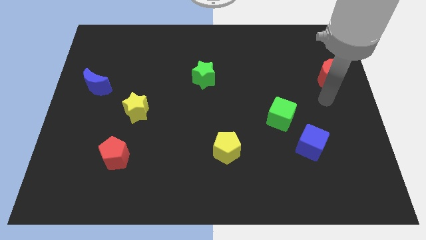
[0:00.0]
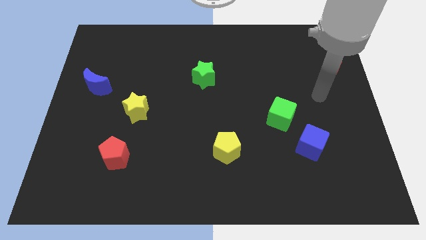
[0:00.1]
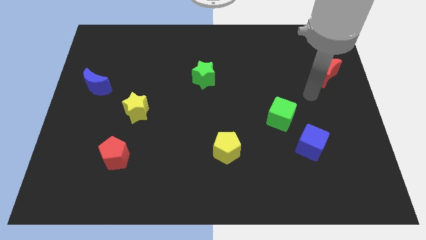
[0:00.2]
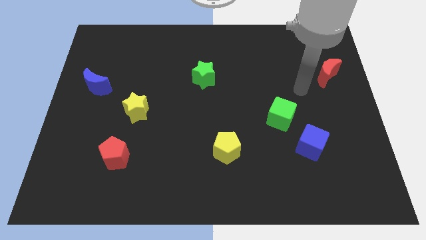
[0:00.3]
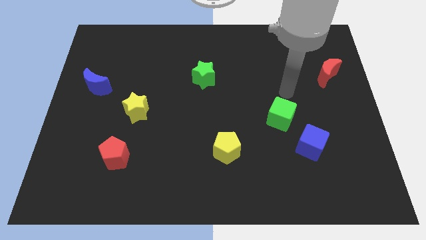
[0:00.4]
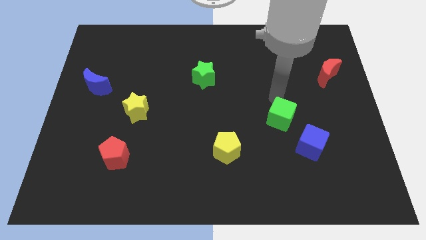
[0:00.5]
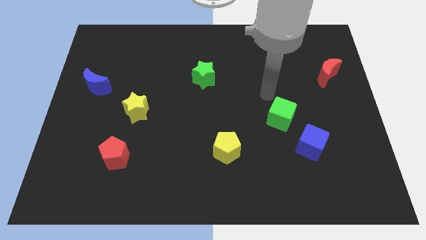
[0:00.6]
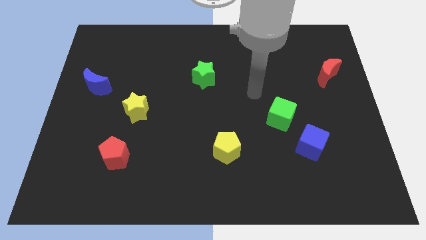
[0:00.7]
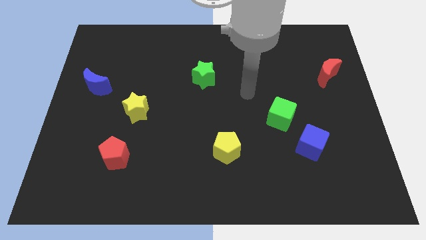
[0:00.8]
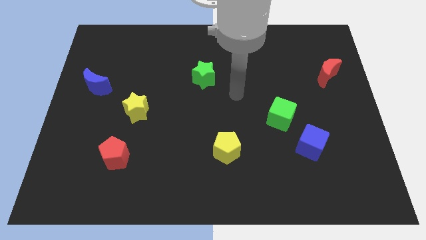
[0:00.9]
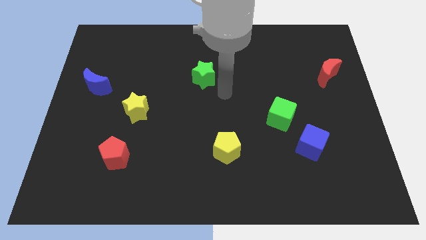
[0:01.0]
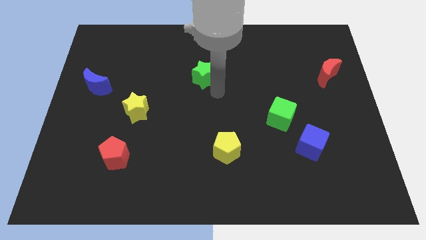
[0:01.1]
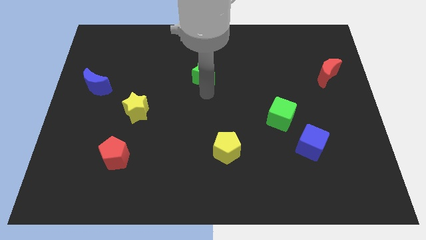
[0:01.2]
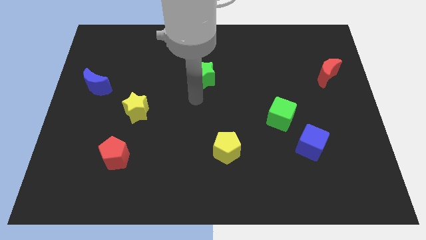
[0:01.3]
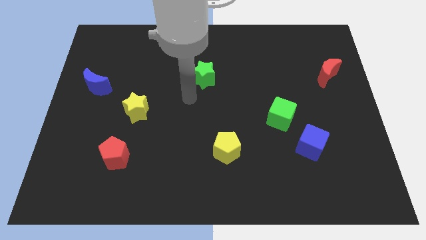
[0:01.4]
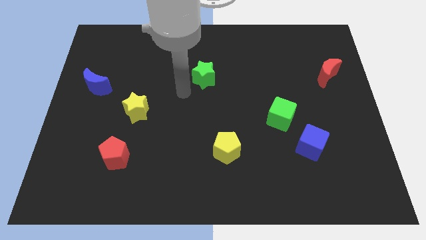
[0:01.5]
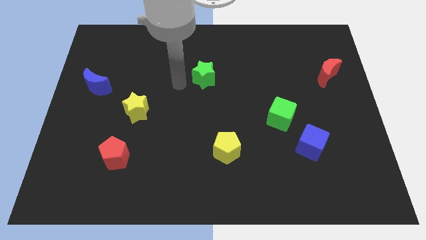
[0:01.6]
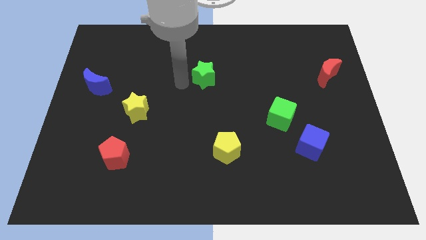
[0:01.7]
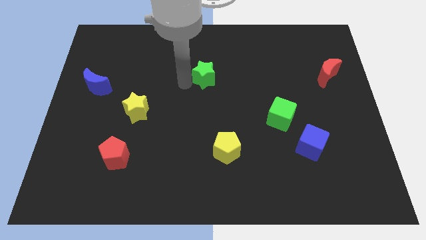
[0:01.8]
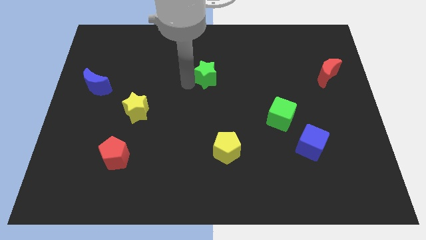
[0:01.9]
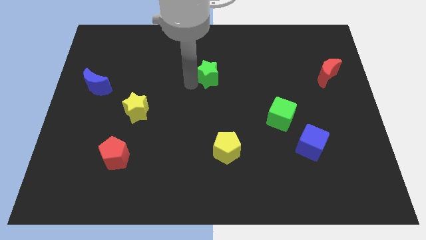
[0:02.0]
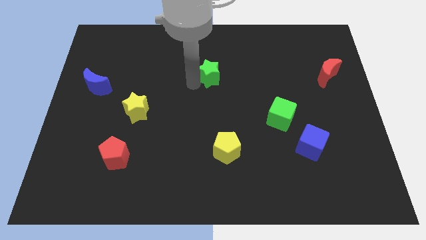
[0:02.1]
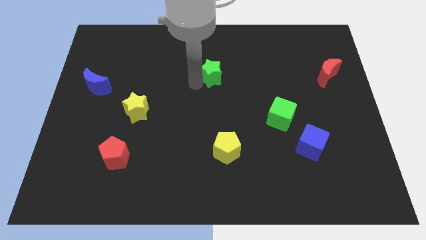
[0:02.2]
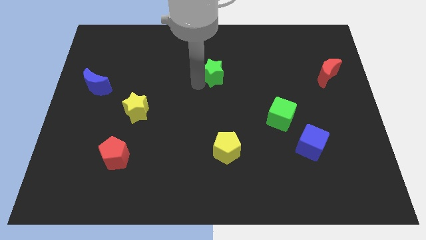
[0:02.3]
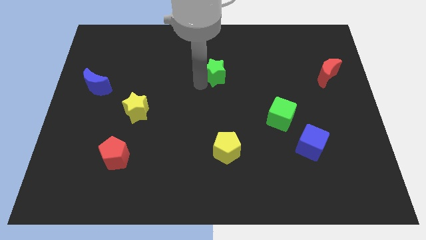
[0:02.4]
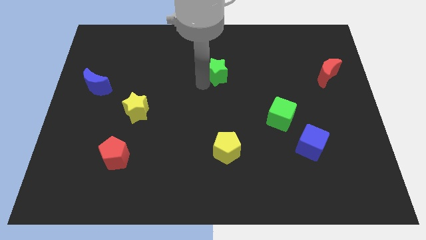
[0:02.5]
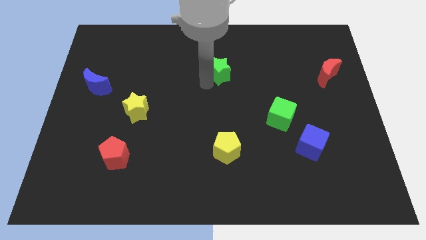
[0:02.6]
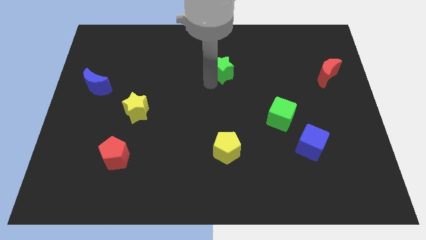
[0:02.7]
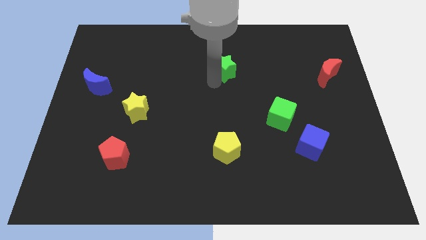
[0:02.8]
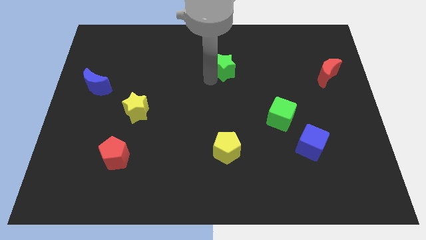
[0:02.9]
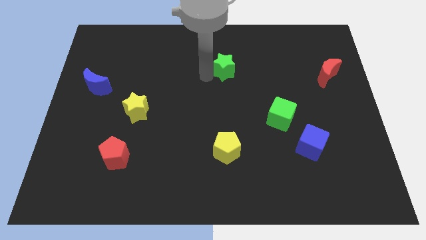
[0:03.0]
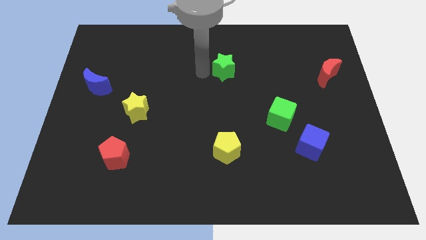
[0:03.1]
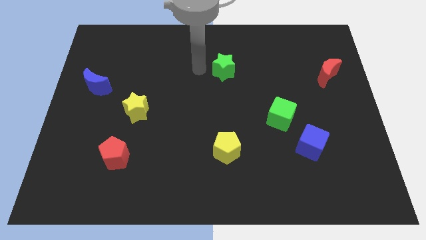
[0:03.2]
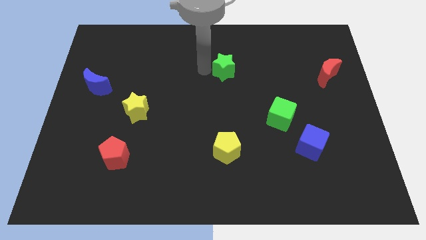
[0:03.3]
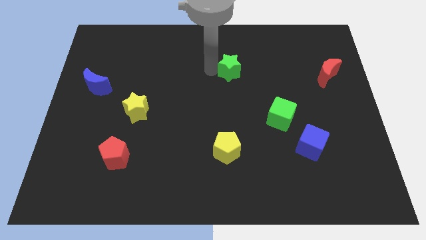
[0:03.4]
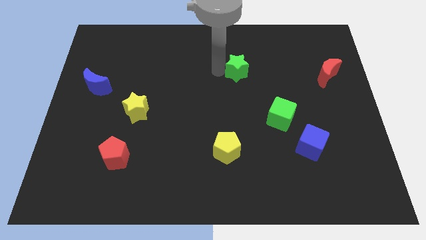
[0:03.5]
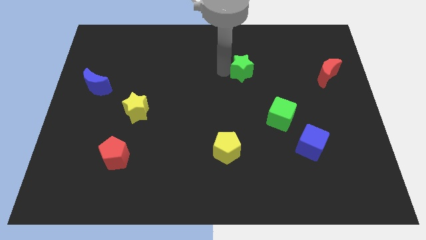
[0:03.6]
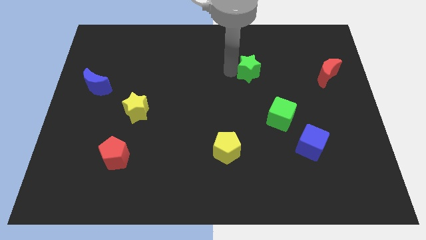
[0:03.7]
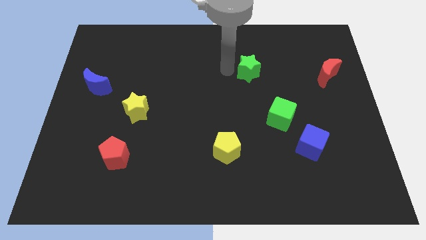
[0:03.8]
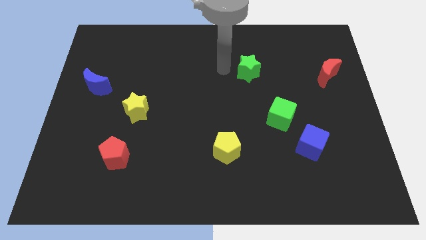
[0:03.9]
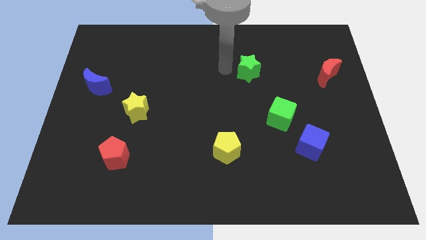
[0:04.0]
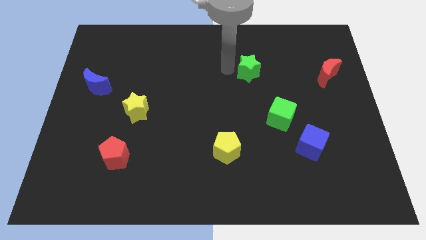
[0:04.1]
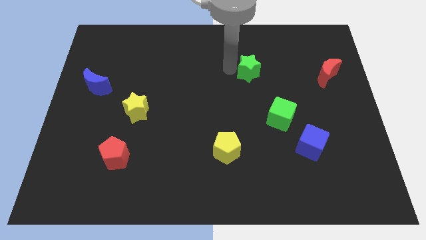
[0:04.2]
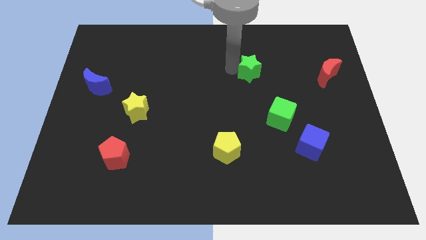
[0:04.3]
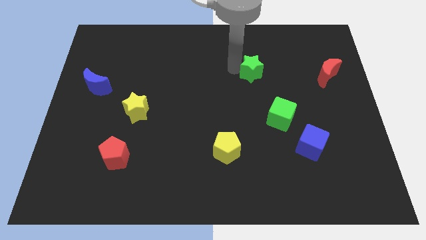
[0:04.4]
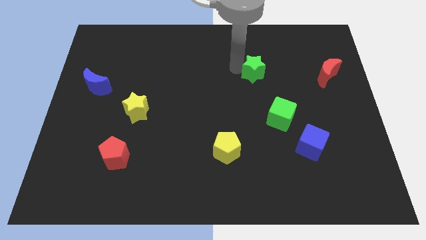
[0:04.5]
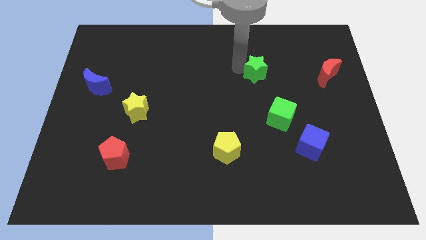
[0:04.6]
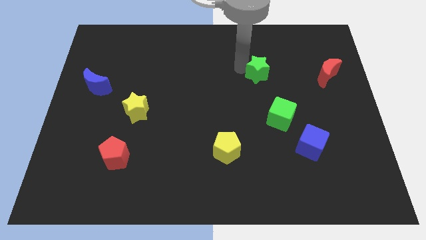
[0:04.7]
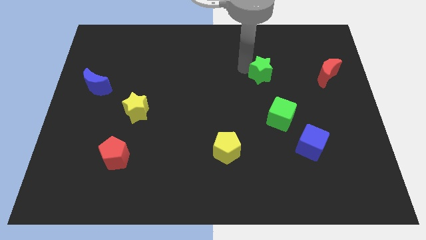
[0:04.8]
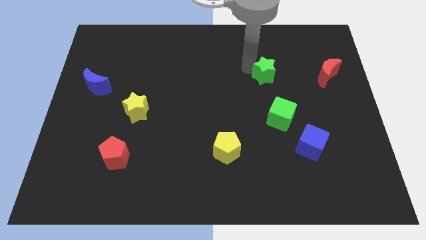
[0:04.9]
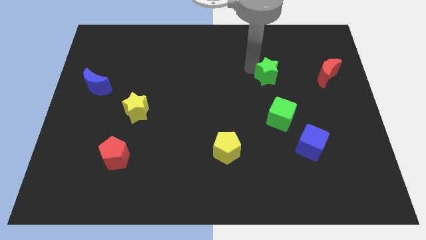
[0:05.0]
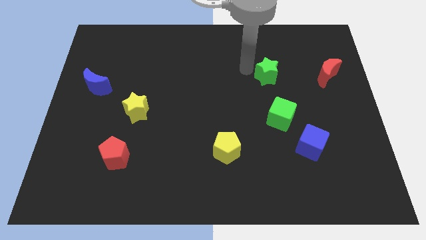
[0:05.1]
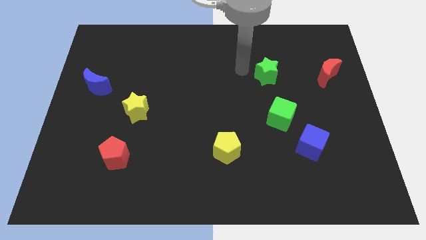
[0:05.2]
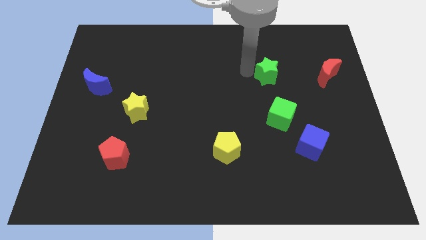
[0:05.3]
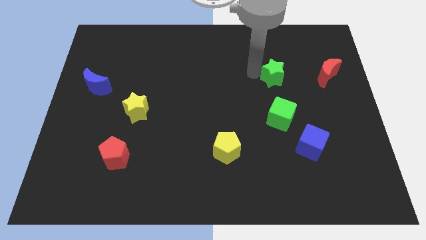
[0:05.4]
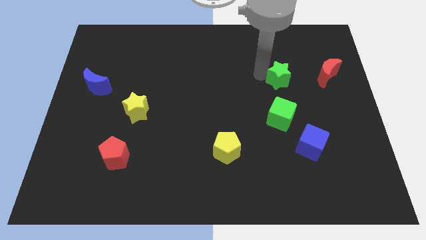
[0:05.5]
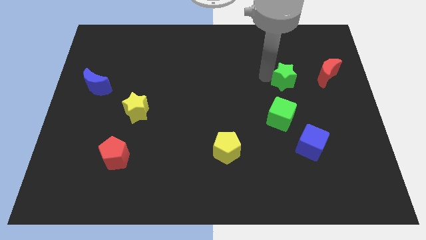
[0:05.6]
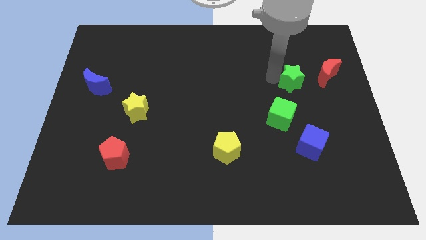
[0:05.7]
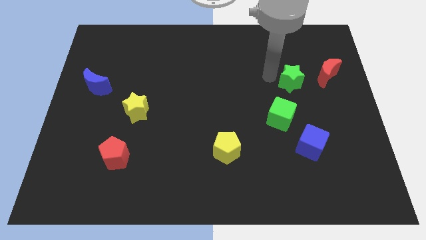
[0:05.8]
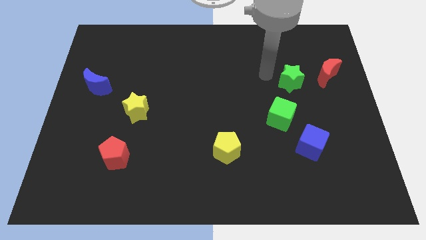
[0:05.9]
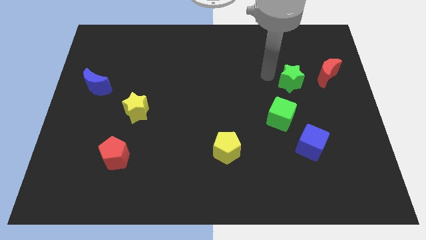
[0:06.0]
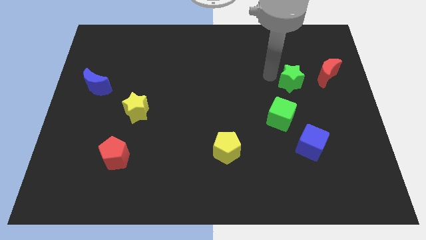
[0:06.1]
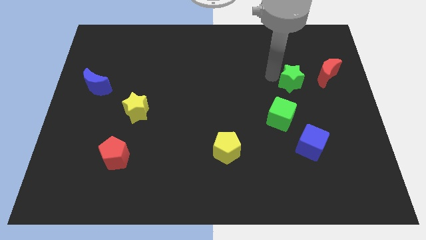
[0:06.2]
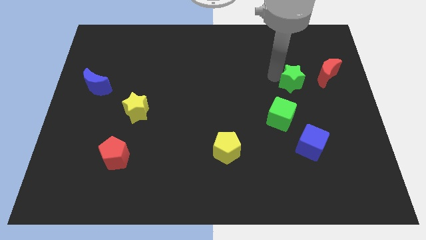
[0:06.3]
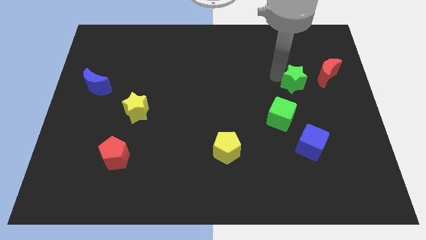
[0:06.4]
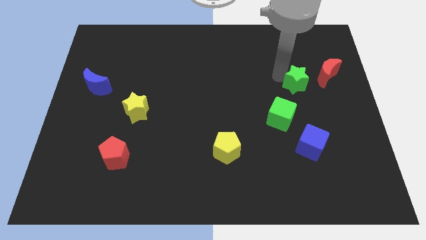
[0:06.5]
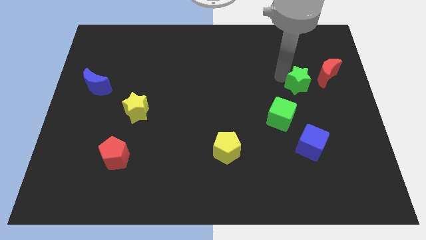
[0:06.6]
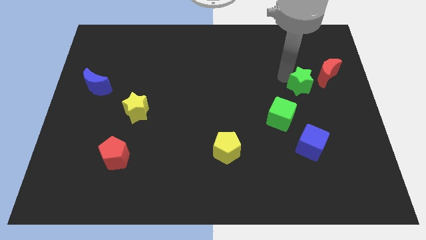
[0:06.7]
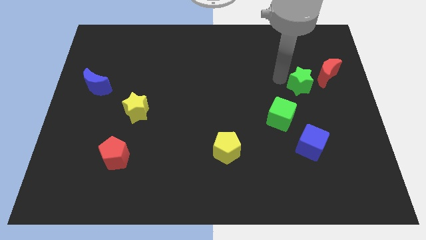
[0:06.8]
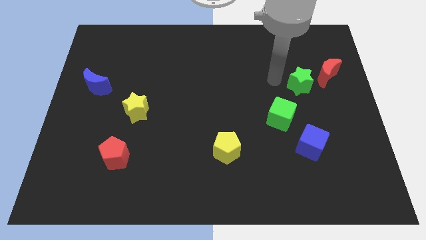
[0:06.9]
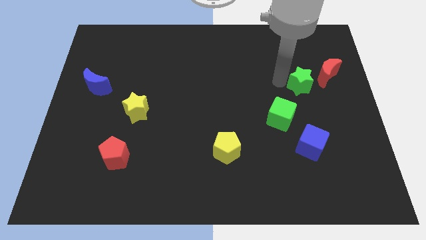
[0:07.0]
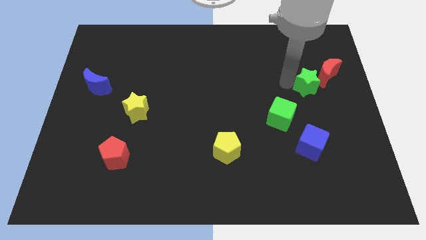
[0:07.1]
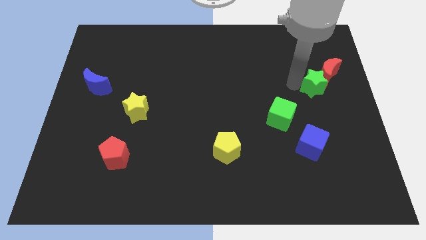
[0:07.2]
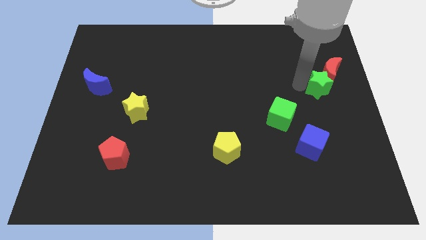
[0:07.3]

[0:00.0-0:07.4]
put the green star to the center right
